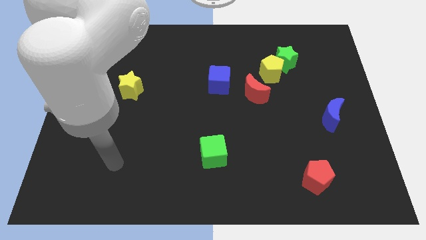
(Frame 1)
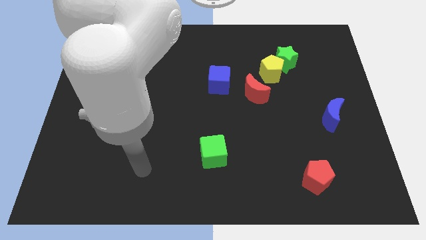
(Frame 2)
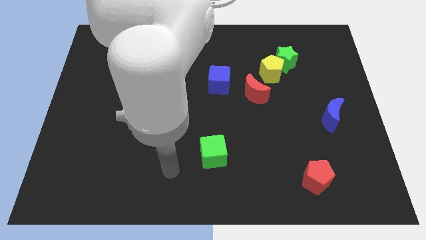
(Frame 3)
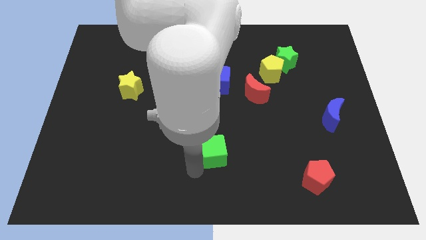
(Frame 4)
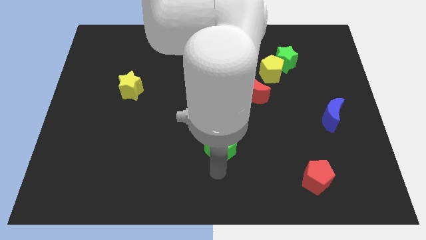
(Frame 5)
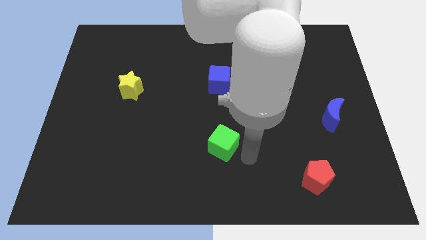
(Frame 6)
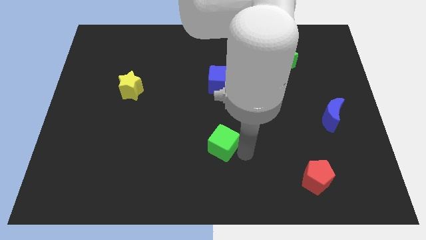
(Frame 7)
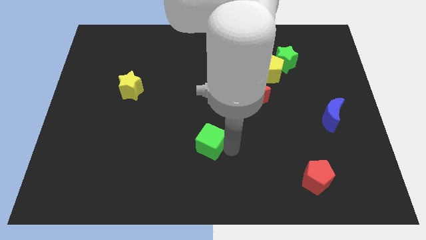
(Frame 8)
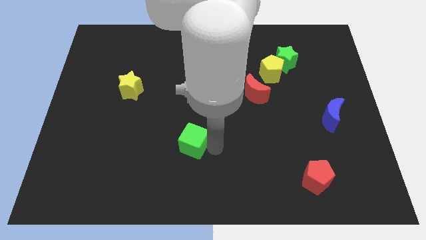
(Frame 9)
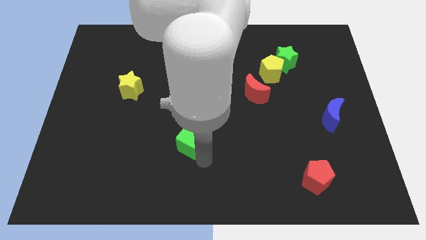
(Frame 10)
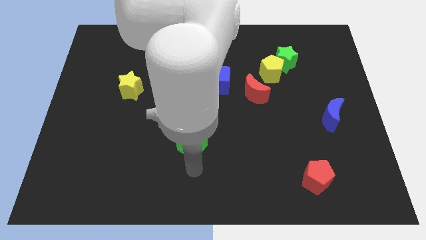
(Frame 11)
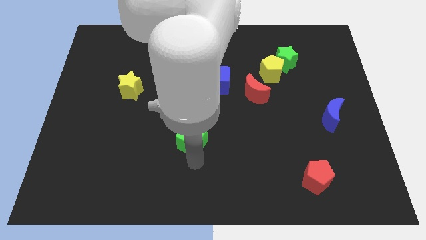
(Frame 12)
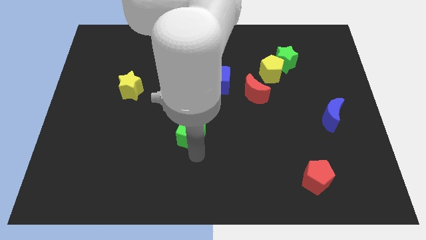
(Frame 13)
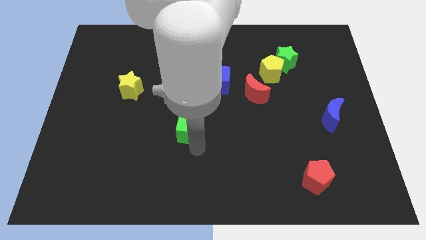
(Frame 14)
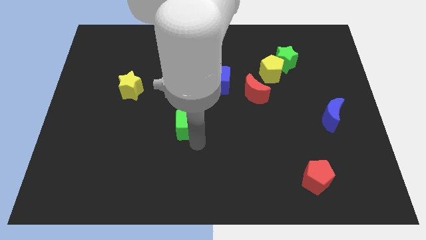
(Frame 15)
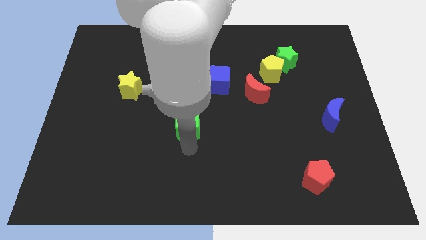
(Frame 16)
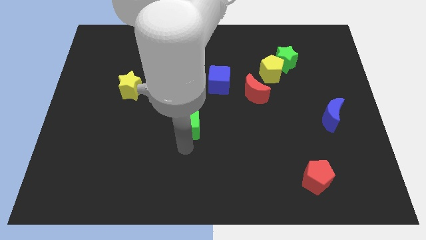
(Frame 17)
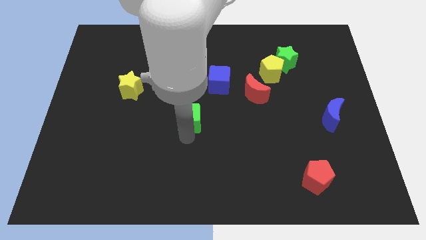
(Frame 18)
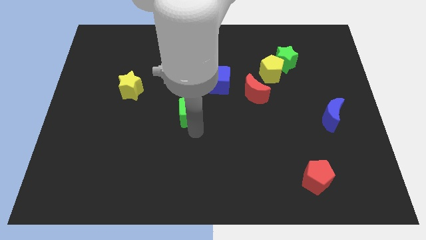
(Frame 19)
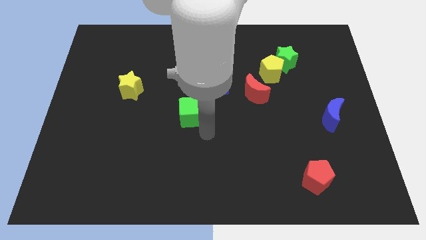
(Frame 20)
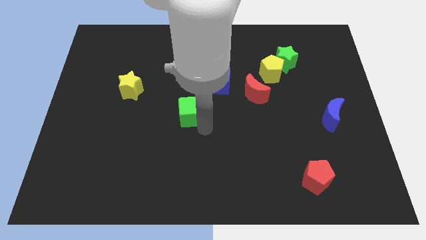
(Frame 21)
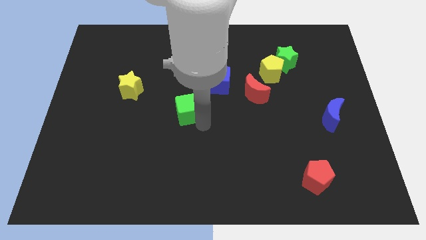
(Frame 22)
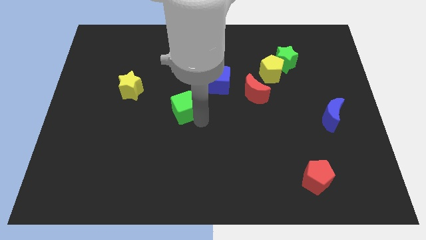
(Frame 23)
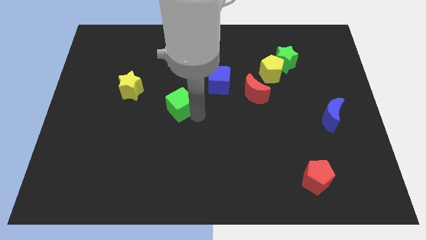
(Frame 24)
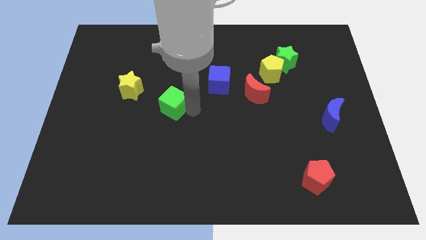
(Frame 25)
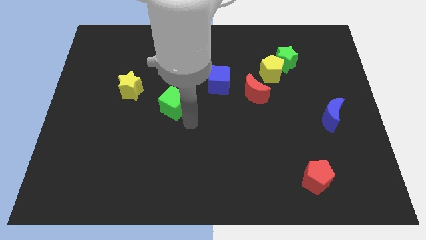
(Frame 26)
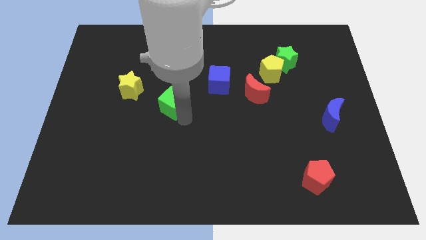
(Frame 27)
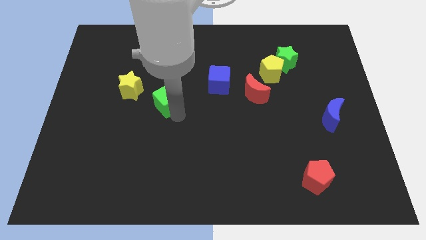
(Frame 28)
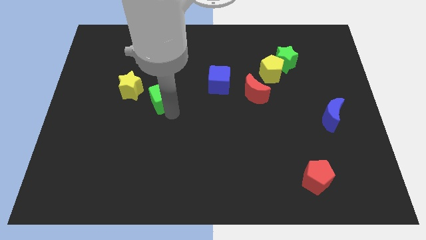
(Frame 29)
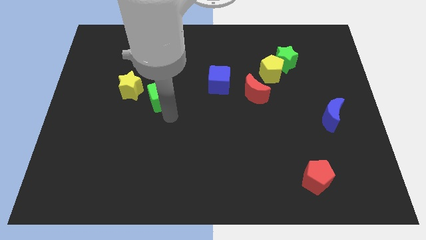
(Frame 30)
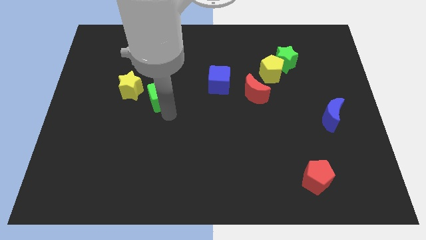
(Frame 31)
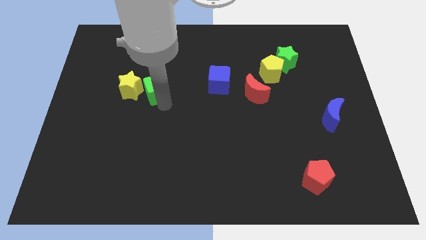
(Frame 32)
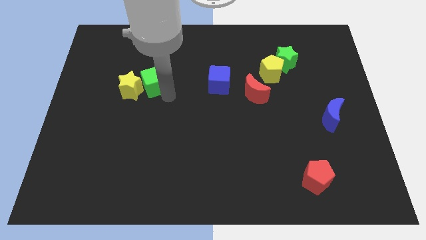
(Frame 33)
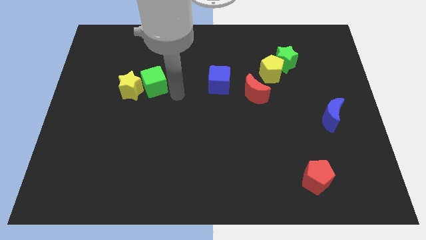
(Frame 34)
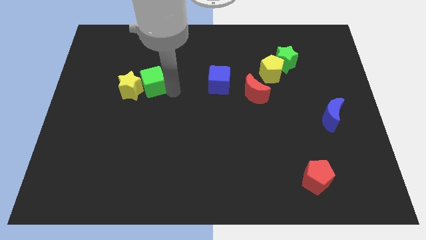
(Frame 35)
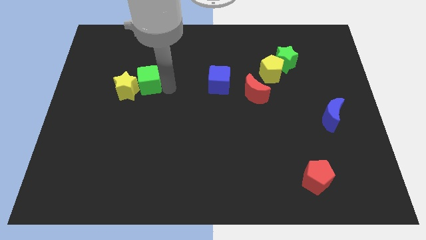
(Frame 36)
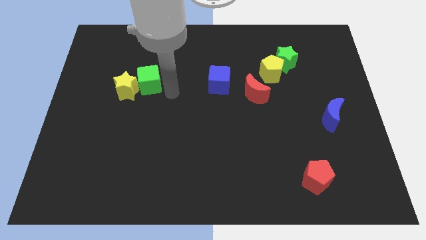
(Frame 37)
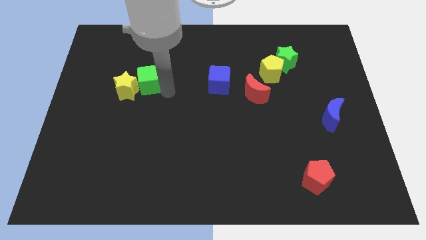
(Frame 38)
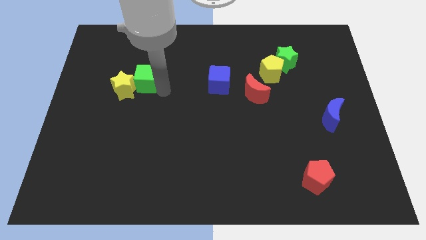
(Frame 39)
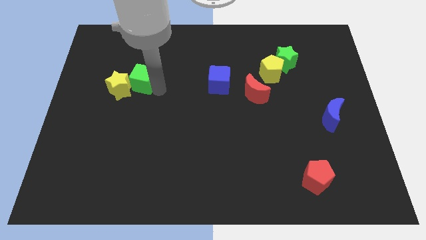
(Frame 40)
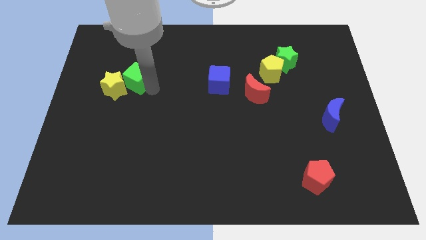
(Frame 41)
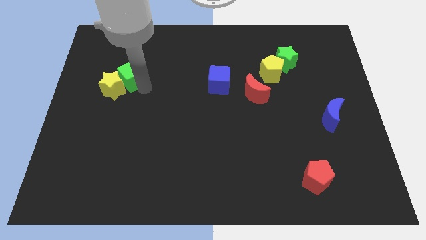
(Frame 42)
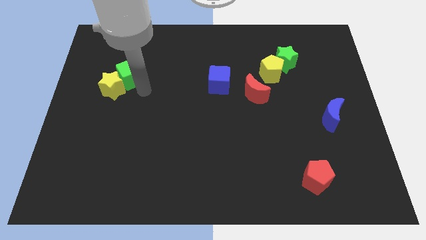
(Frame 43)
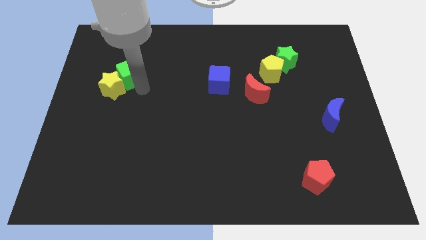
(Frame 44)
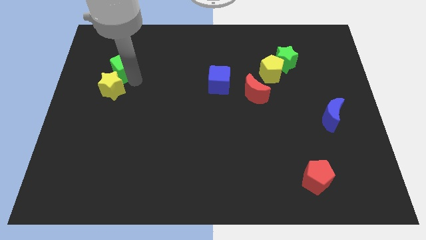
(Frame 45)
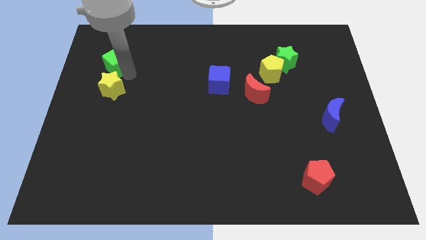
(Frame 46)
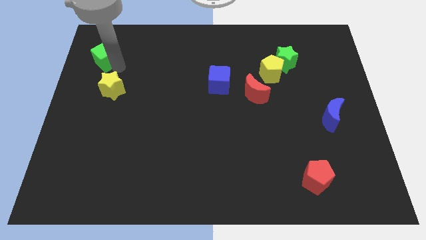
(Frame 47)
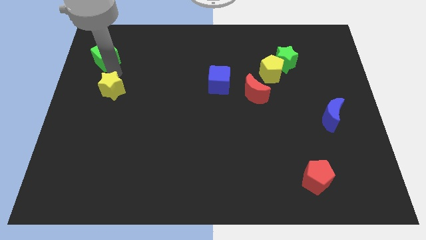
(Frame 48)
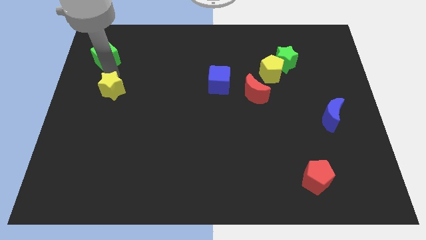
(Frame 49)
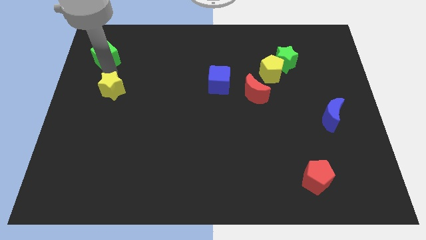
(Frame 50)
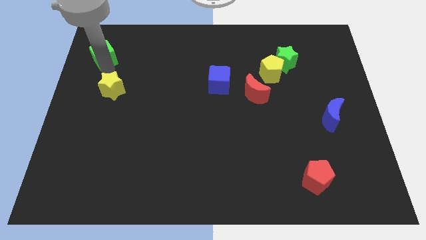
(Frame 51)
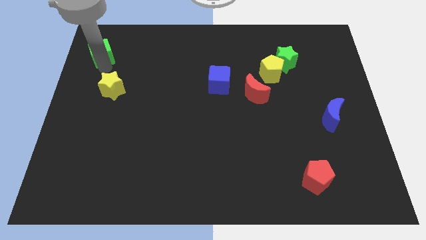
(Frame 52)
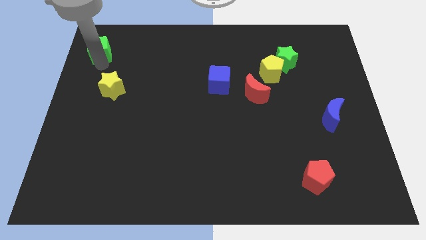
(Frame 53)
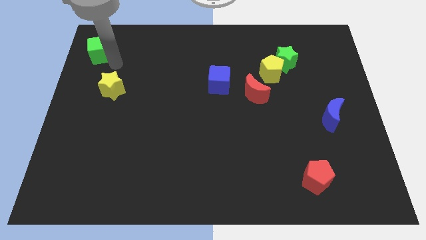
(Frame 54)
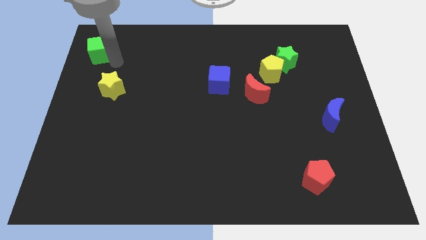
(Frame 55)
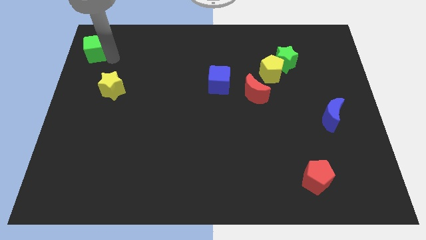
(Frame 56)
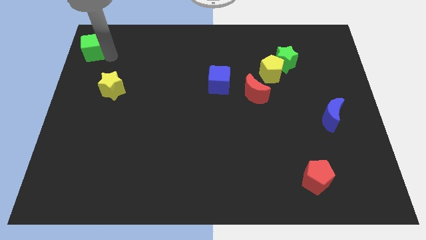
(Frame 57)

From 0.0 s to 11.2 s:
push the green cube to the top left corner
